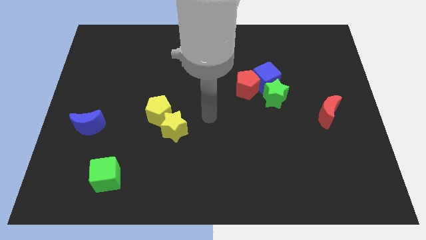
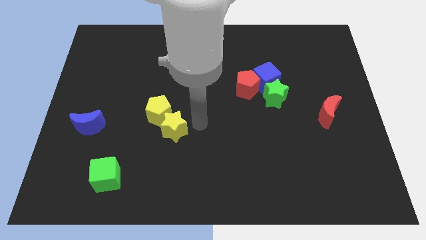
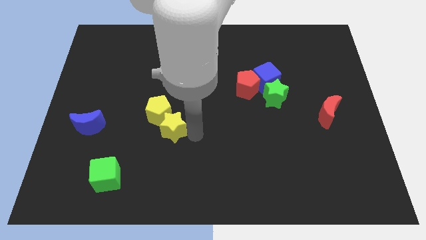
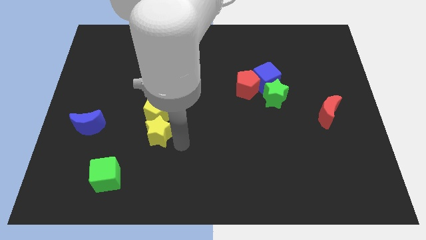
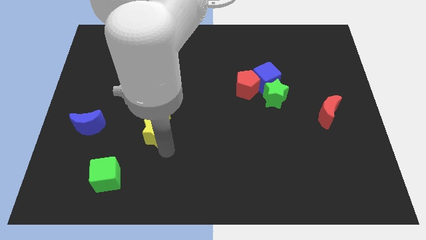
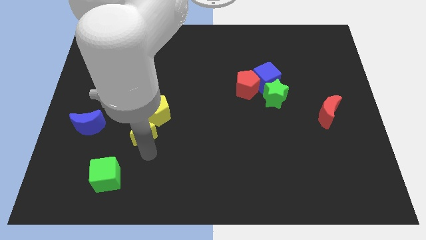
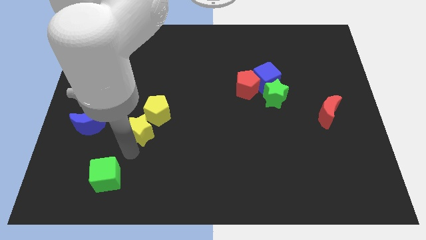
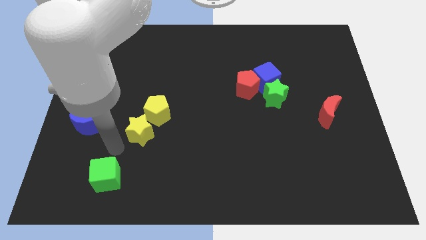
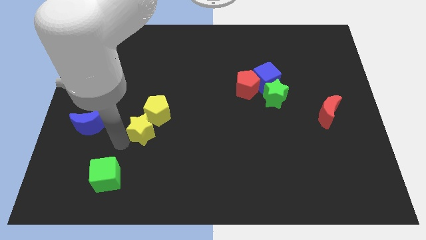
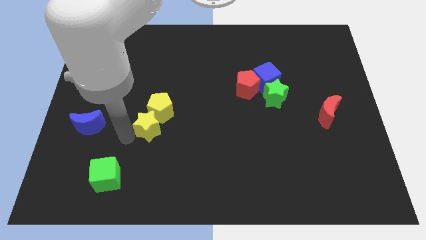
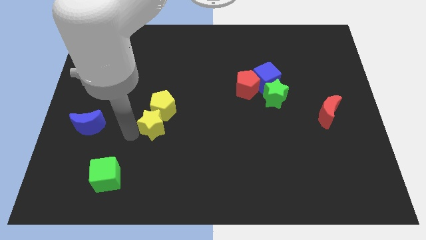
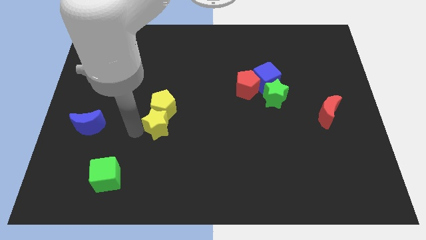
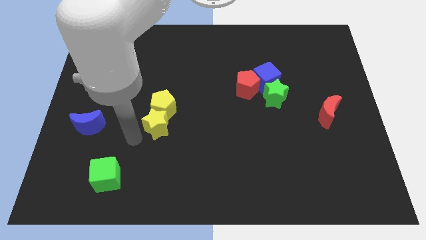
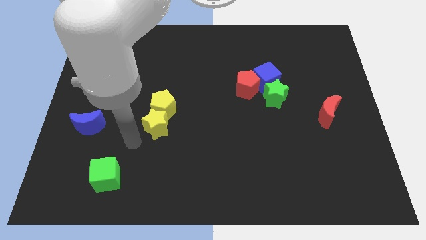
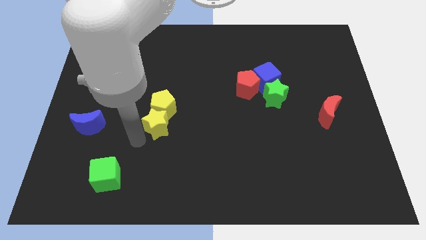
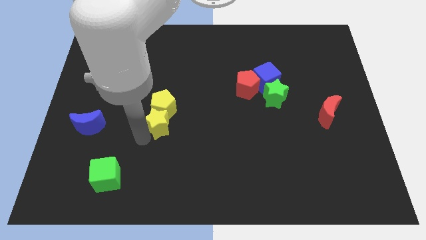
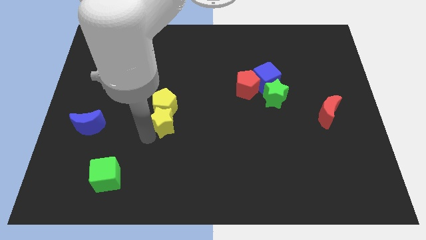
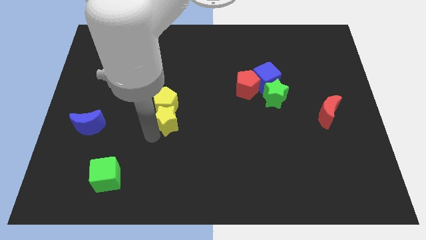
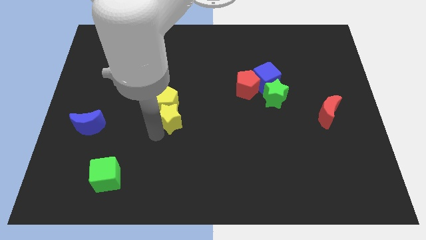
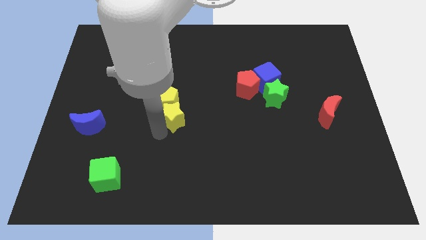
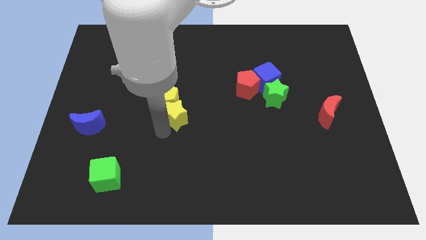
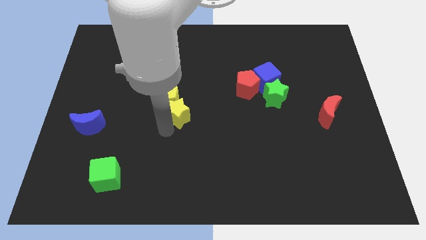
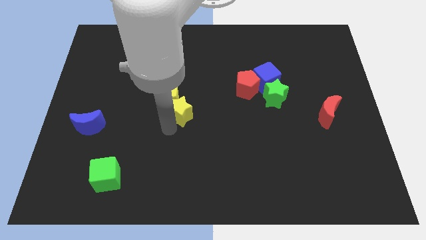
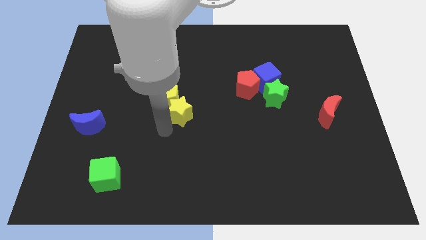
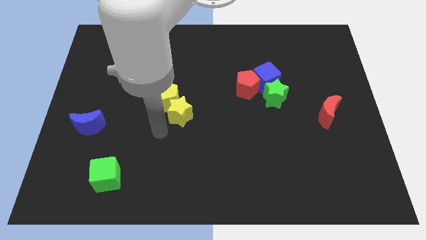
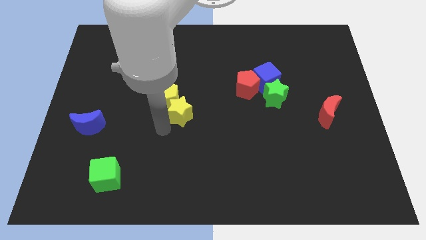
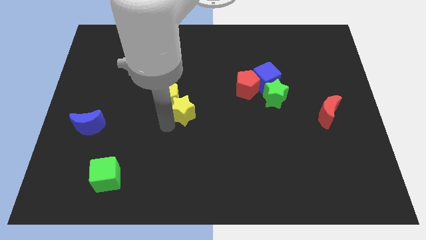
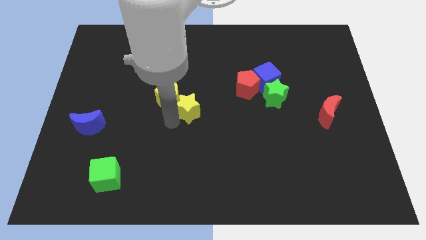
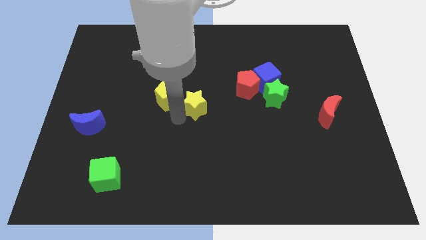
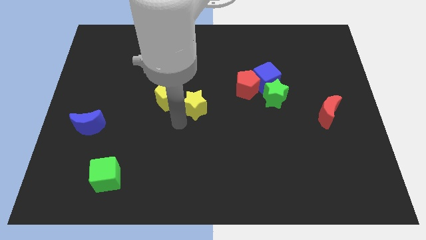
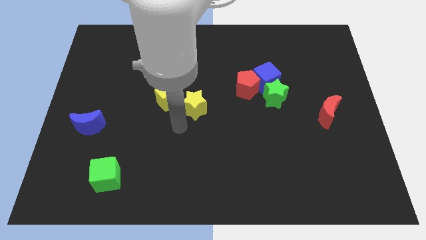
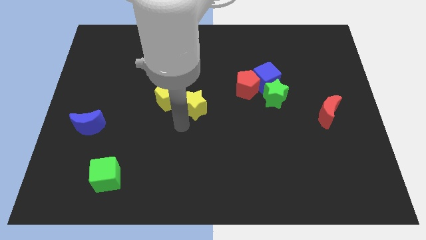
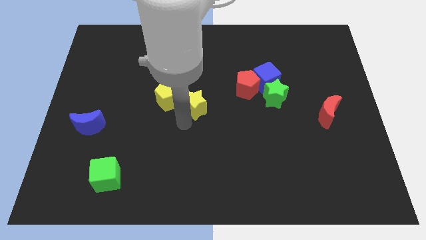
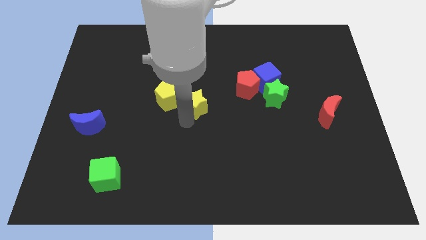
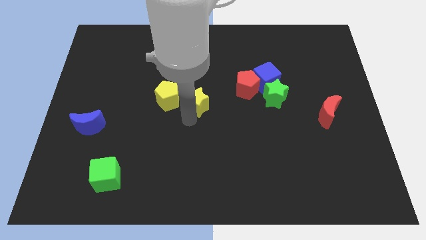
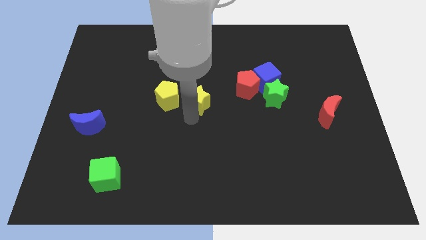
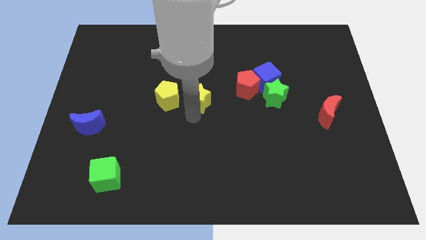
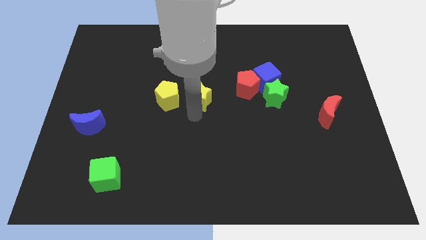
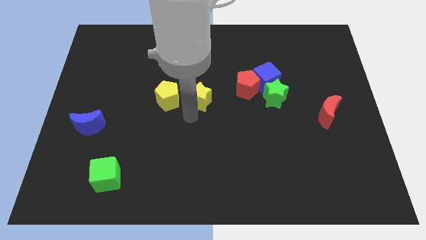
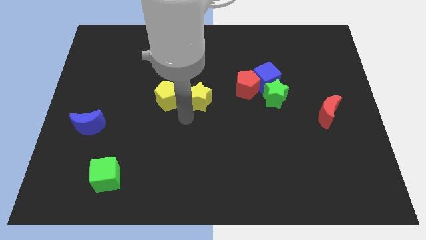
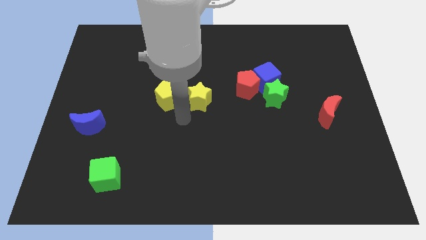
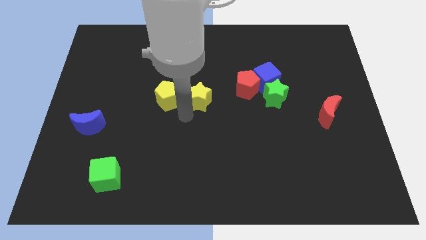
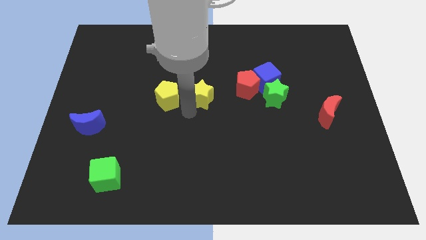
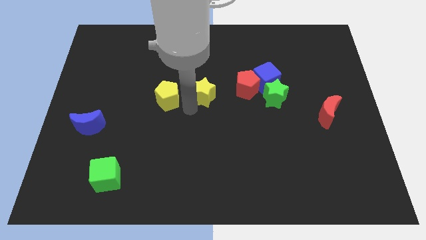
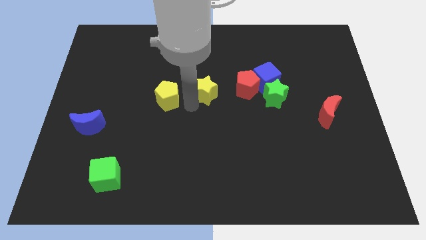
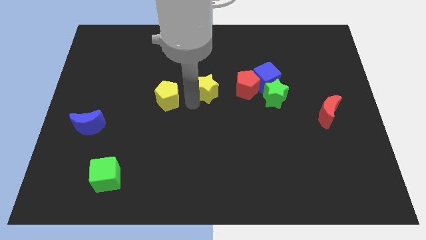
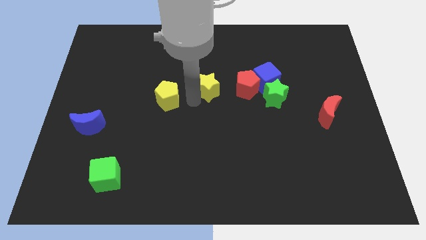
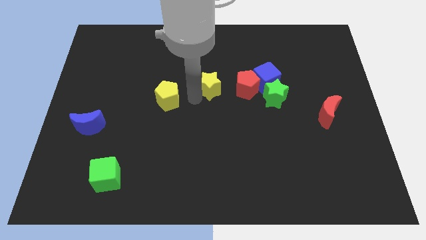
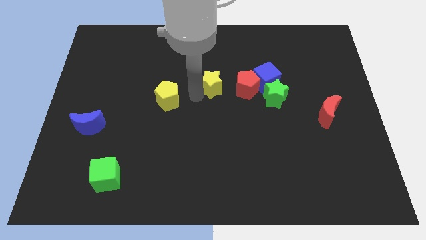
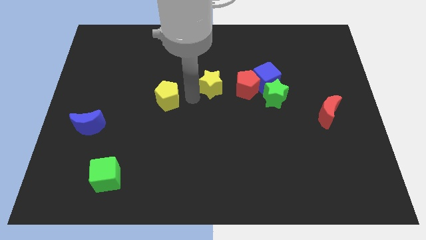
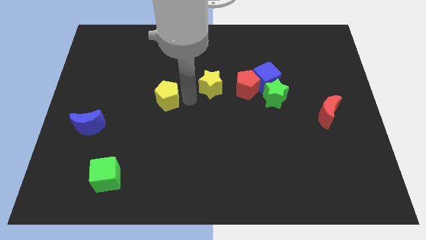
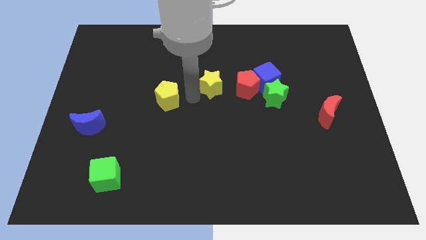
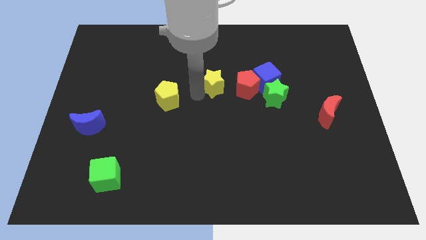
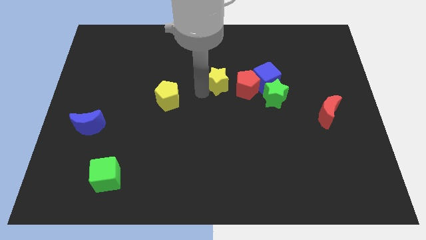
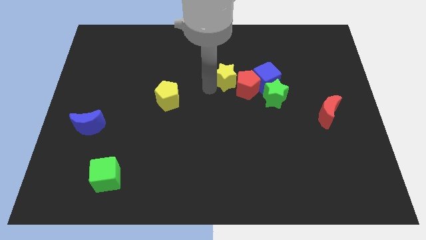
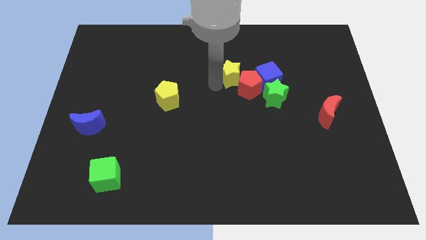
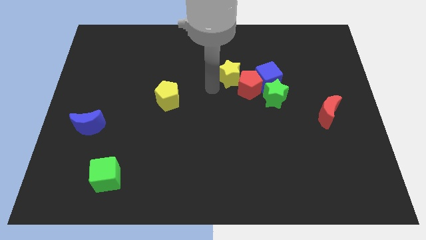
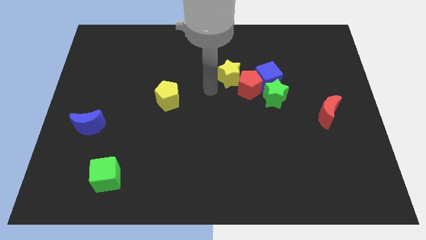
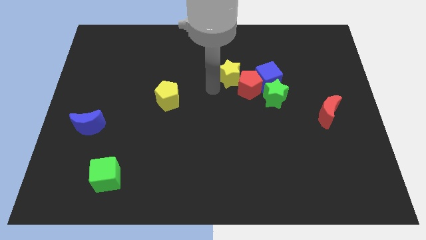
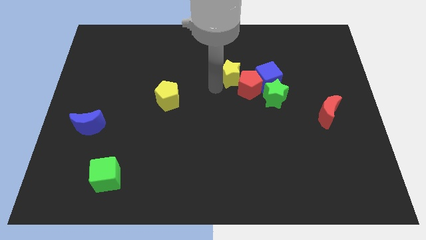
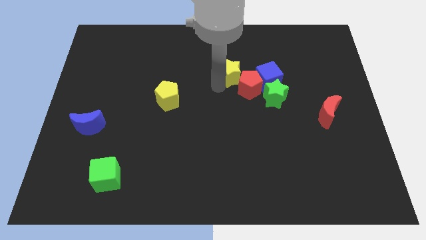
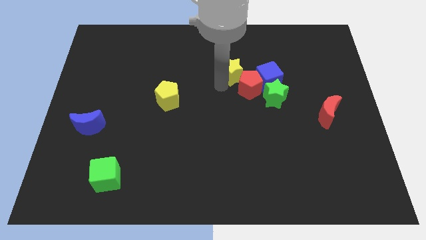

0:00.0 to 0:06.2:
slide the yellow star diagonally up and to the left of the blue cube

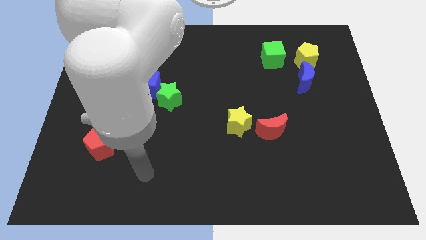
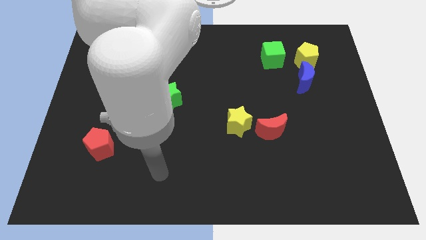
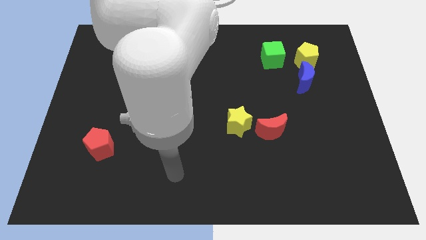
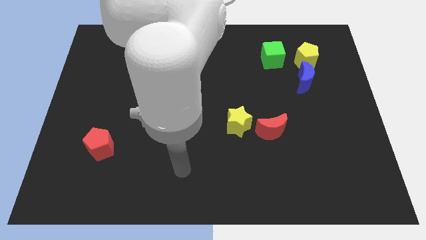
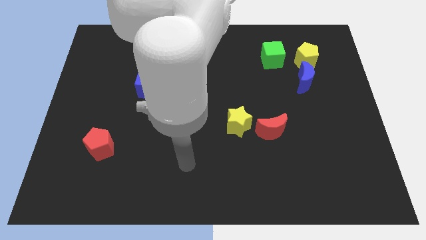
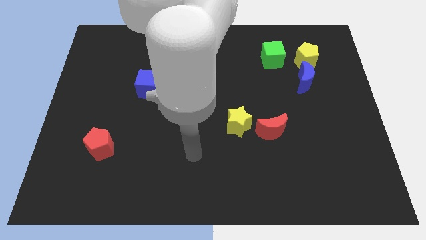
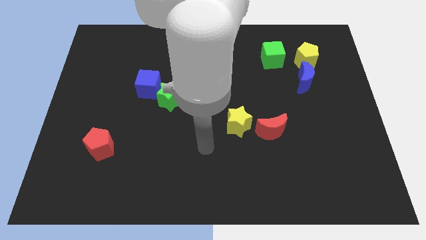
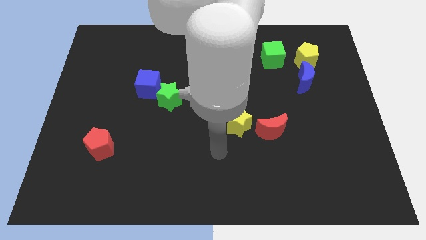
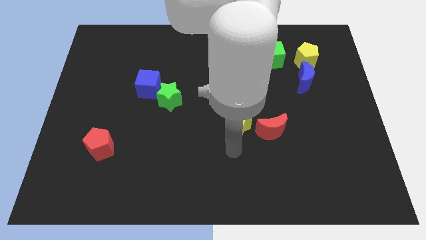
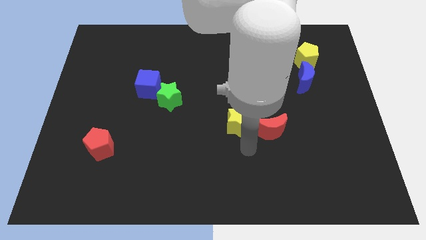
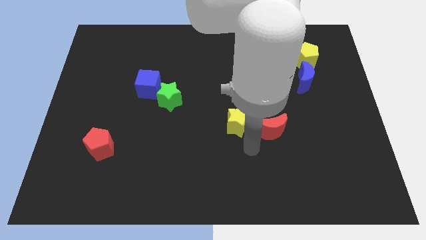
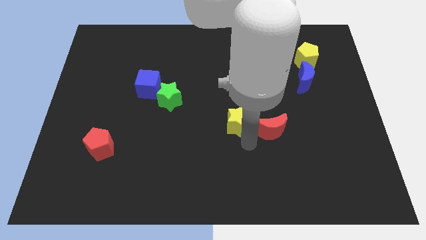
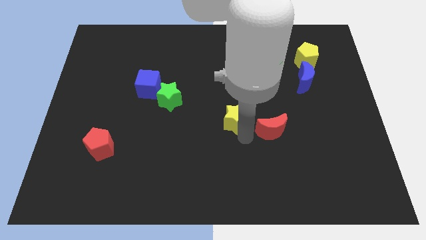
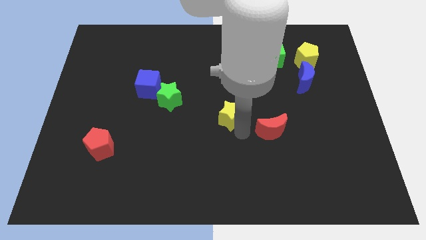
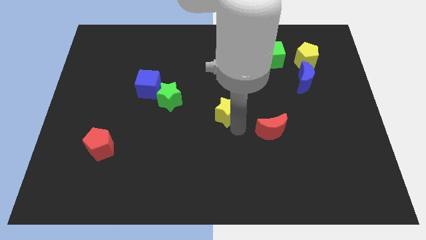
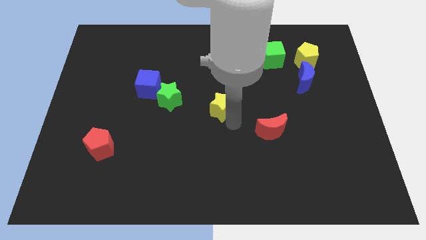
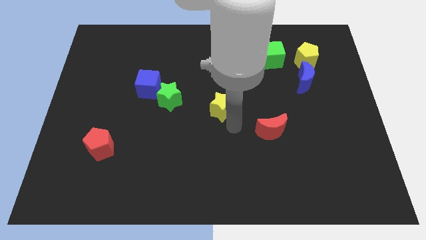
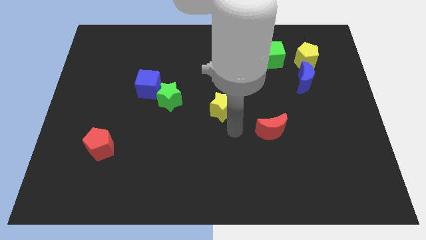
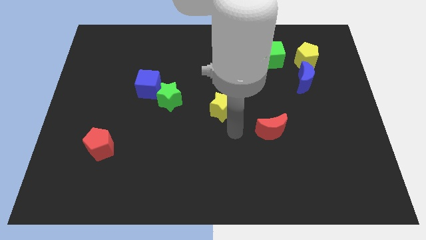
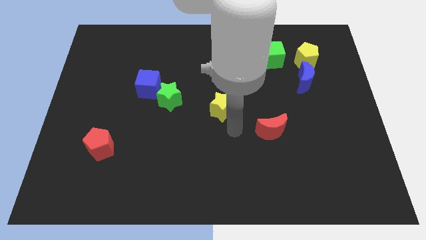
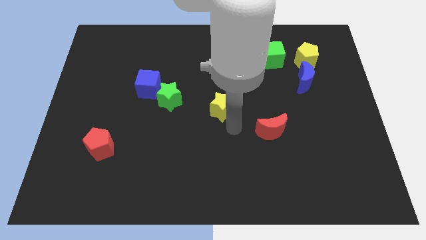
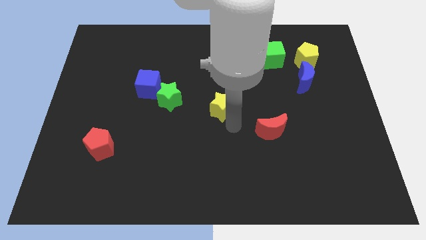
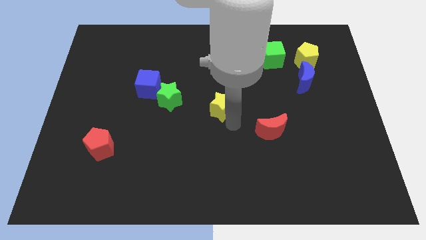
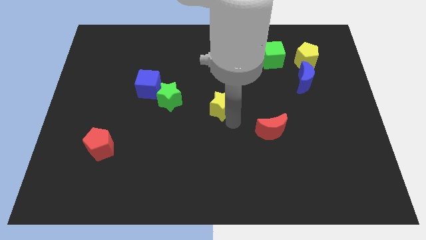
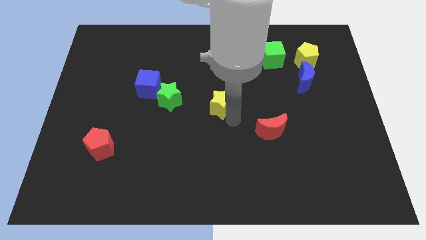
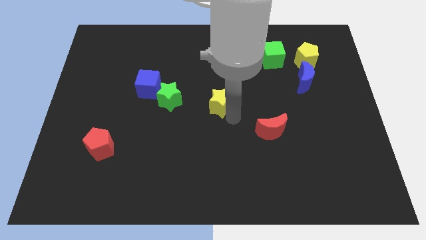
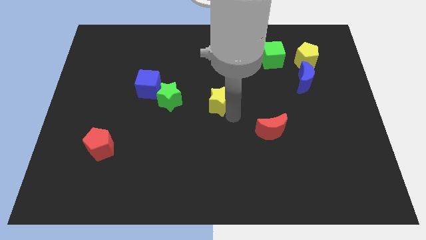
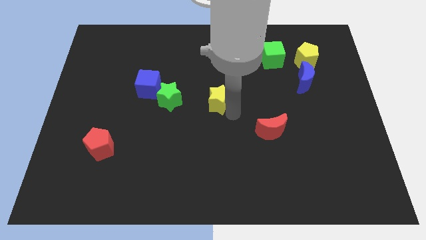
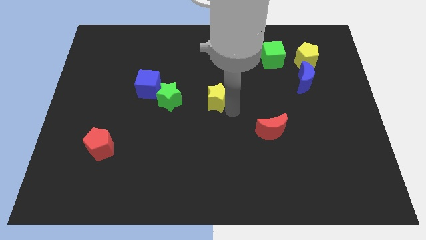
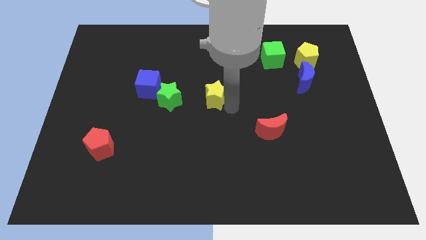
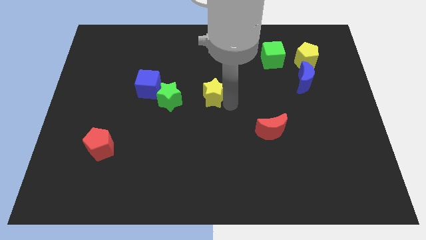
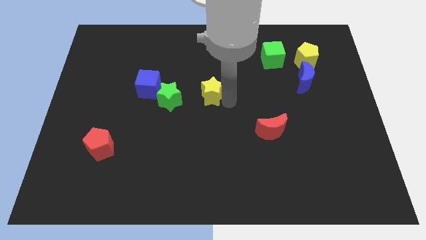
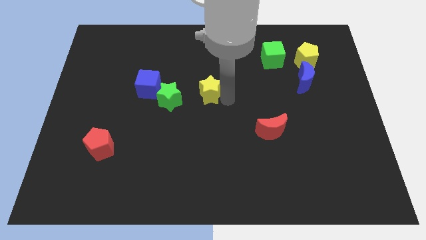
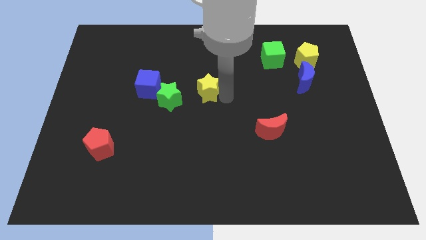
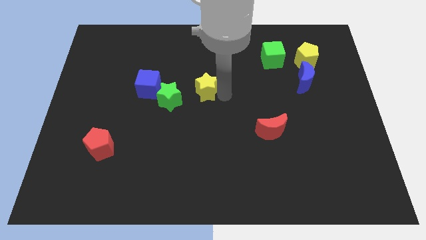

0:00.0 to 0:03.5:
slide the yellow star to the top right side of the green star
